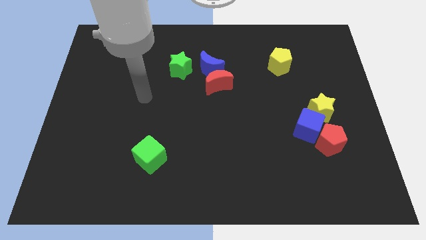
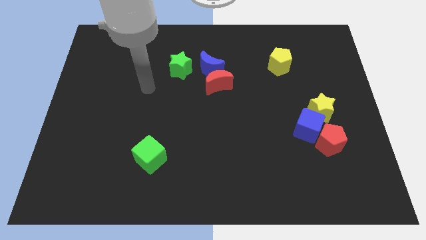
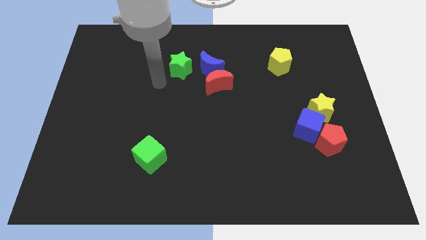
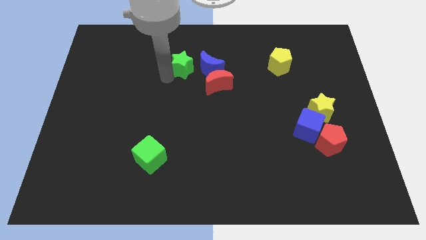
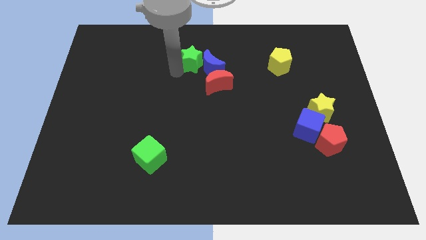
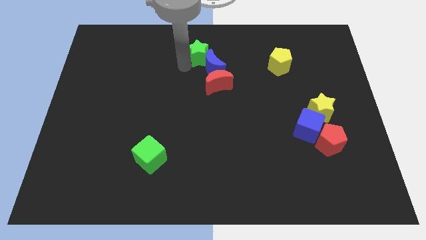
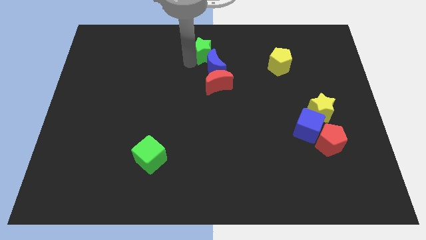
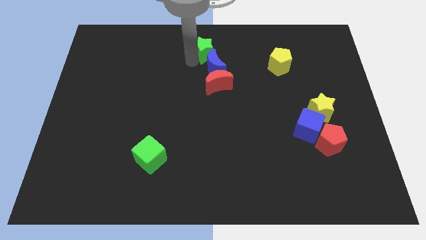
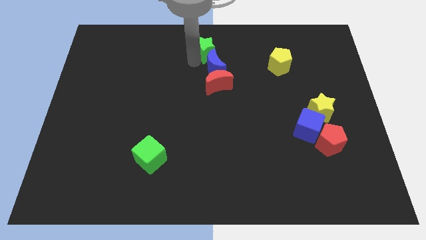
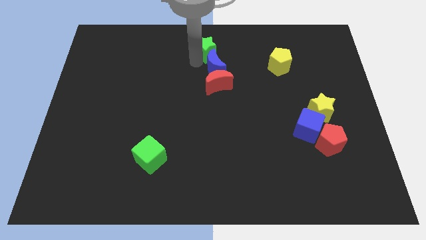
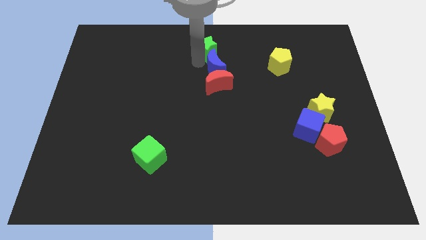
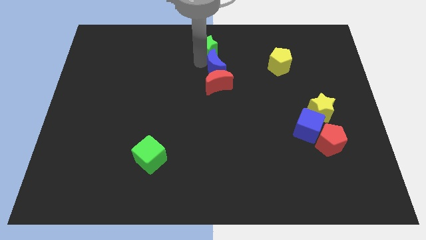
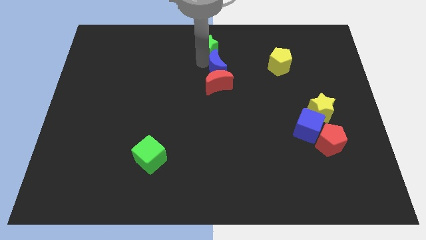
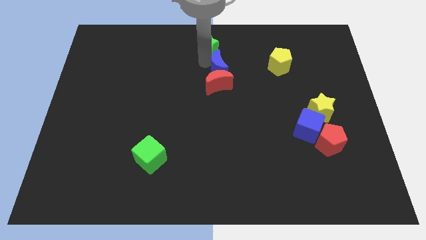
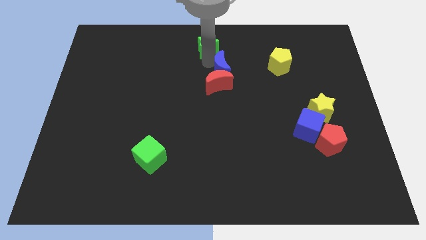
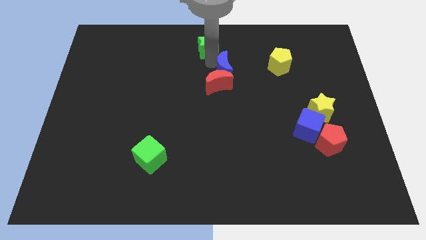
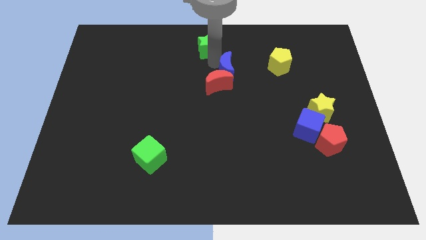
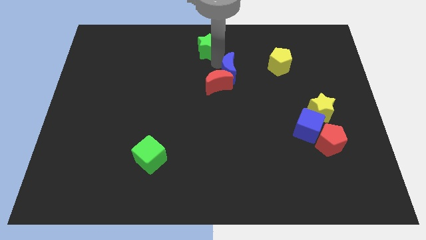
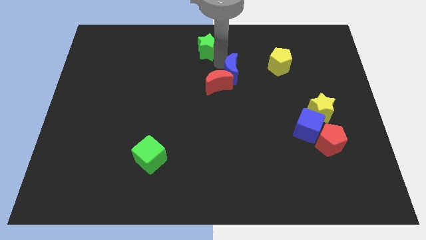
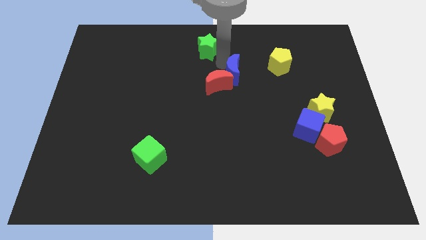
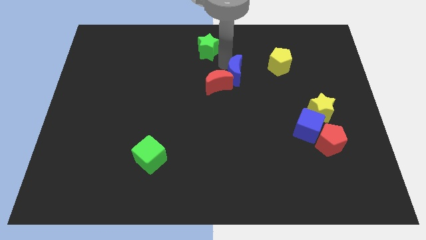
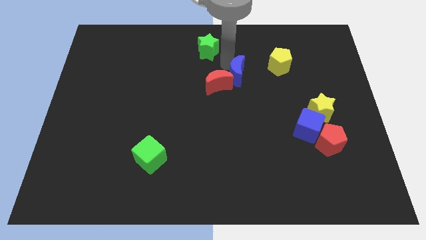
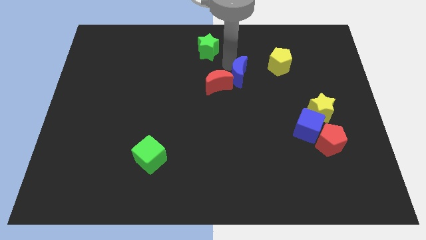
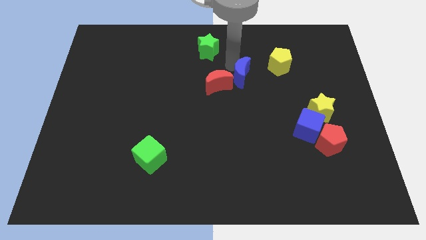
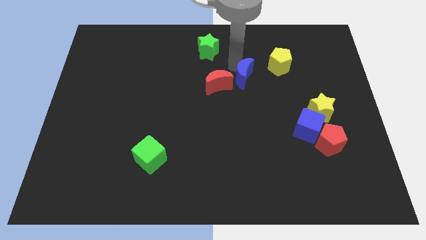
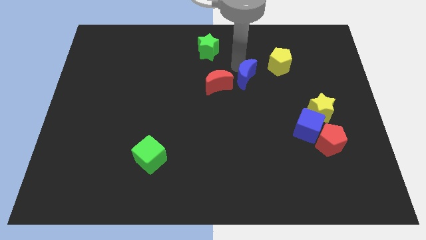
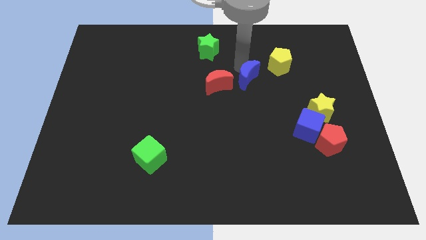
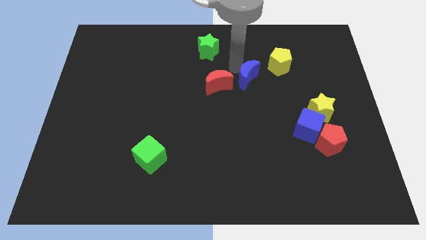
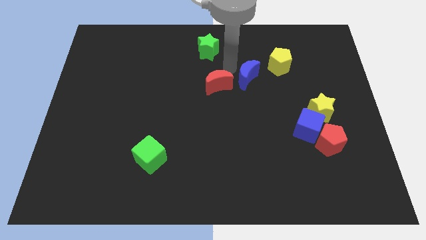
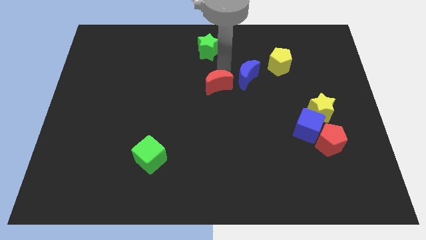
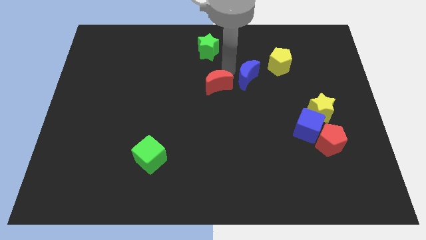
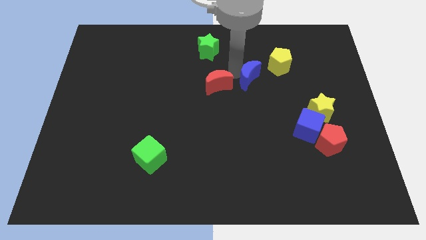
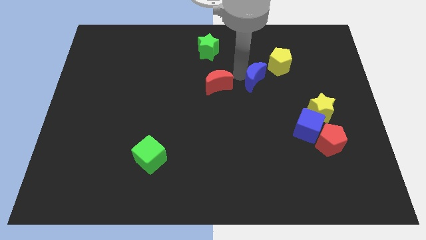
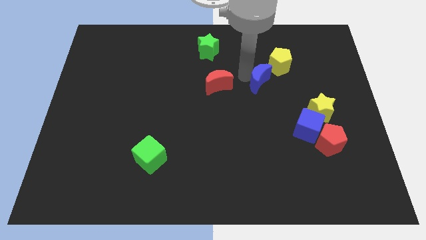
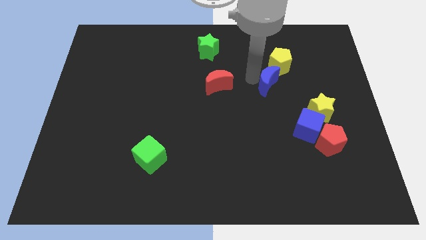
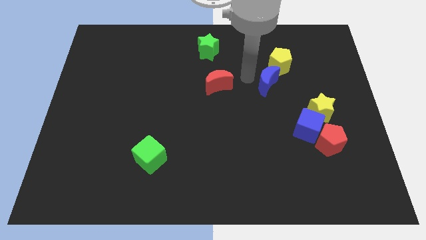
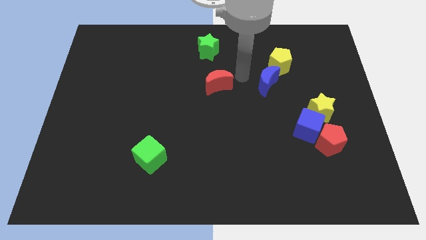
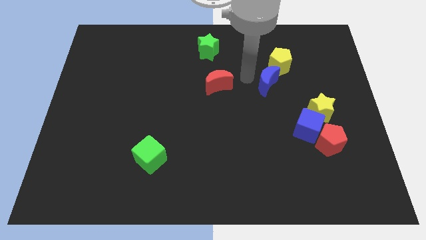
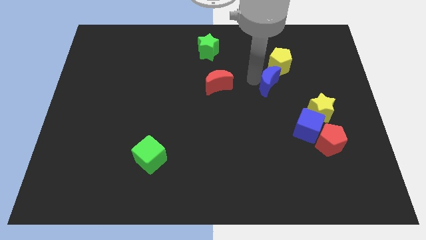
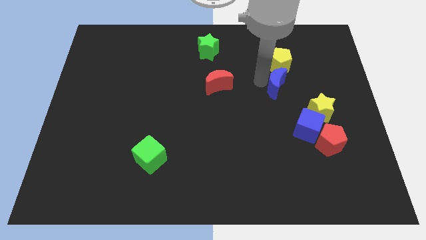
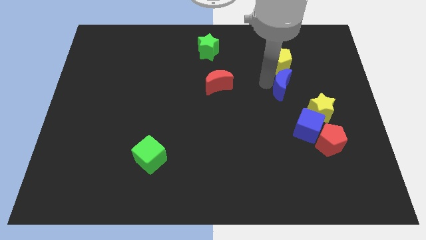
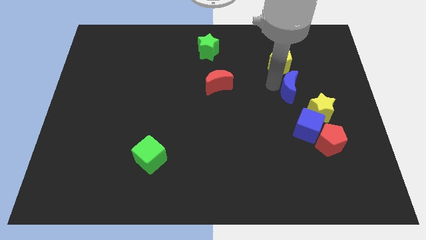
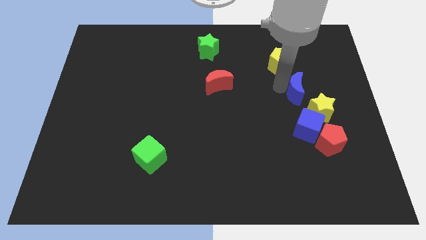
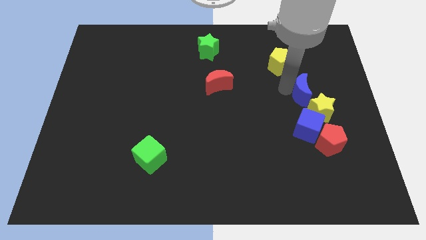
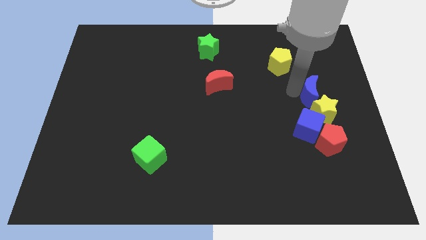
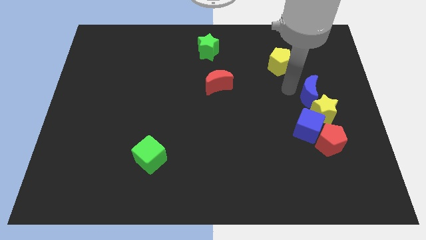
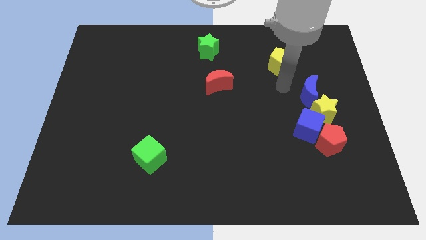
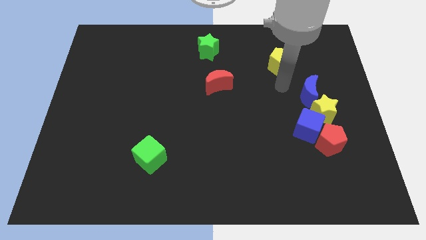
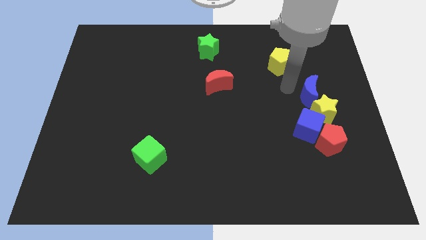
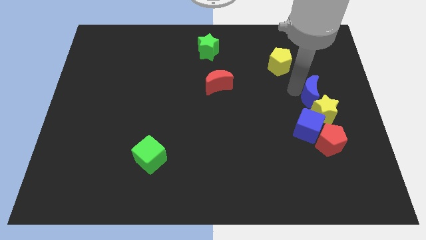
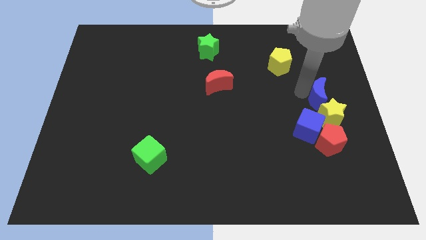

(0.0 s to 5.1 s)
move the blue moon diagonally up and to the right of the blue cube

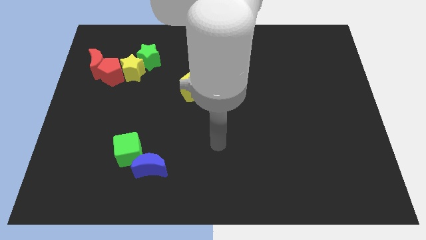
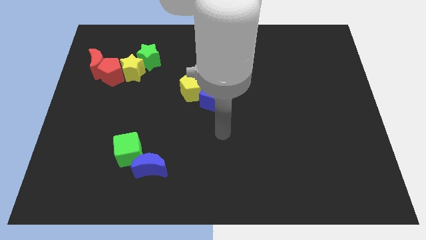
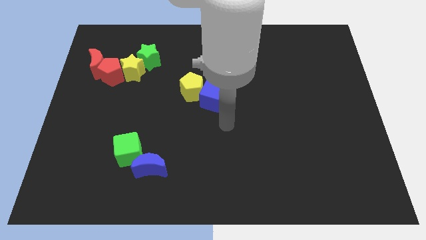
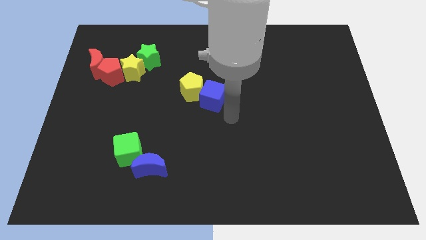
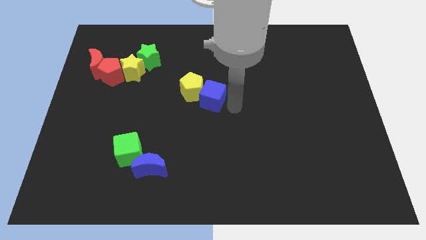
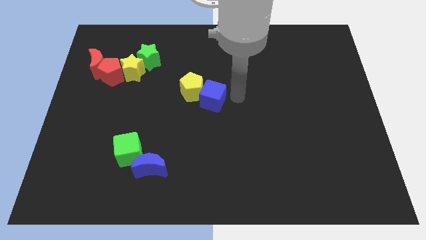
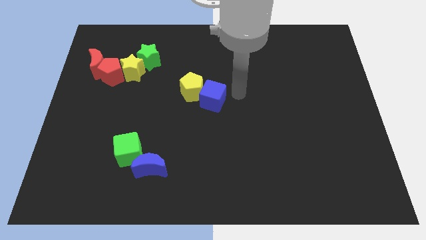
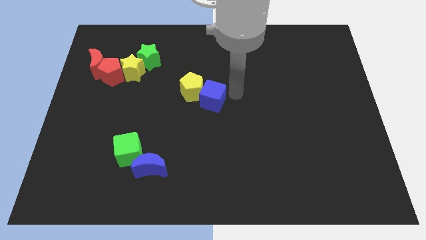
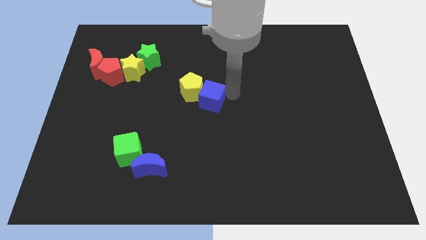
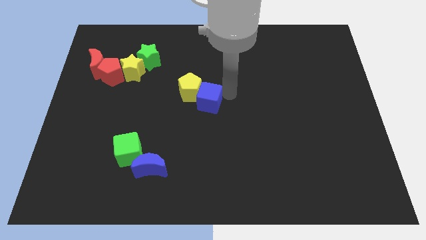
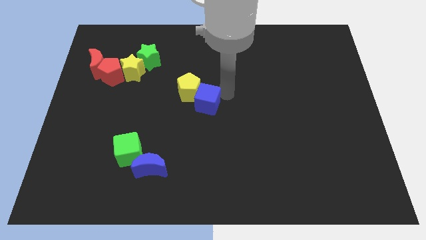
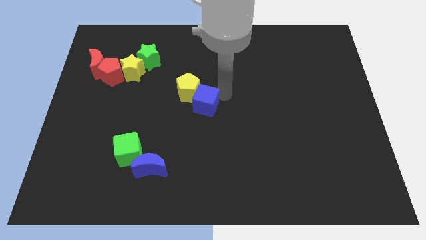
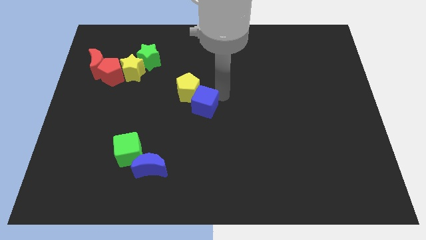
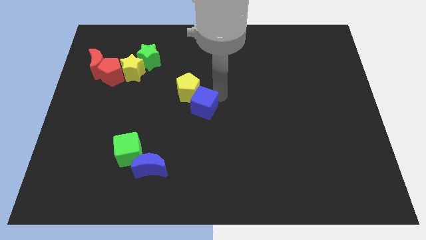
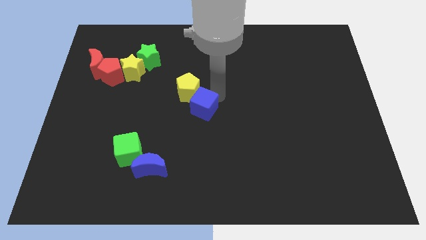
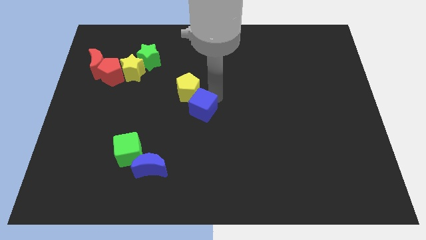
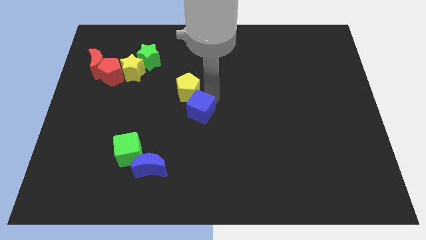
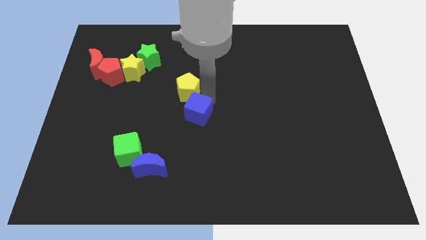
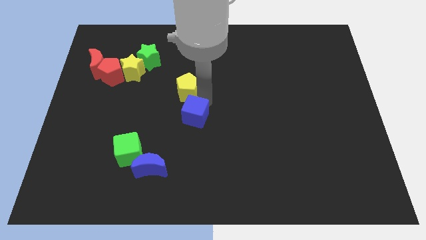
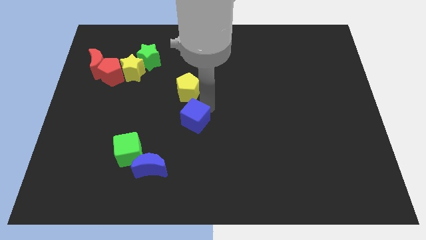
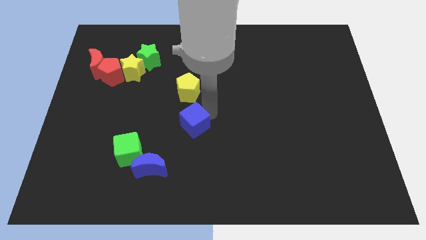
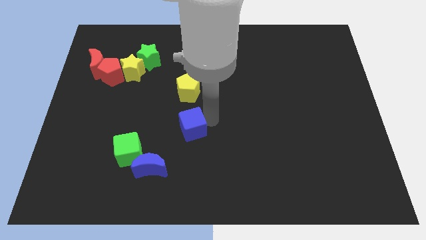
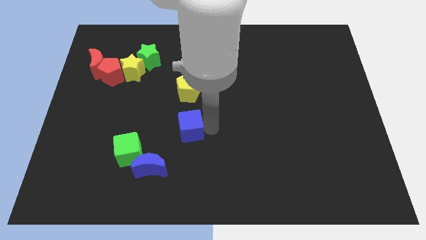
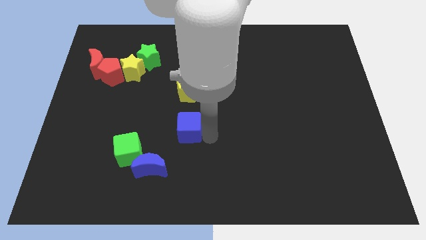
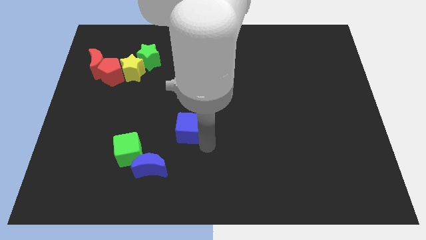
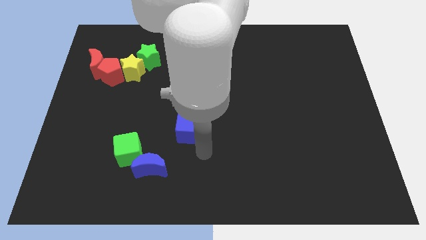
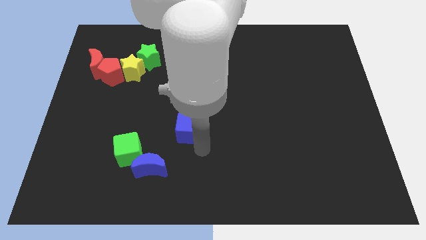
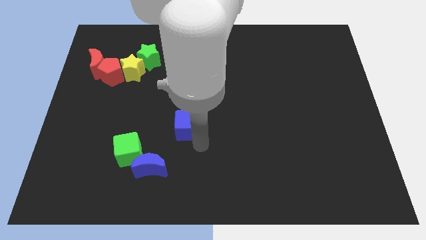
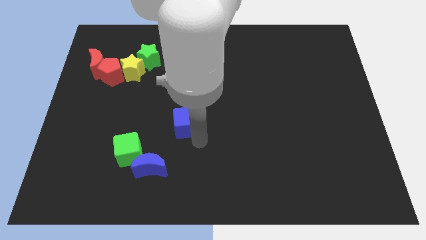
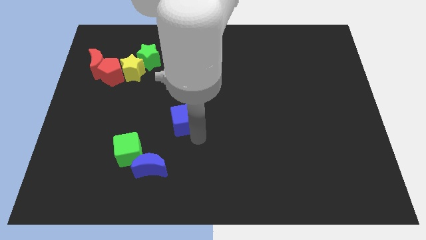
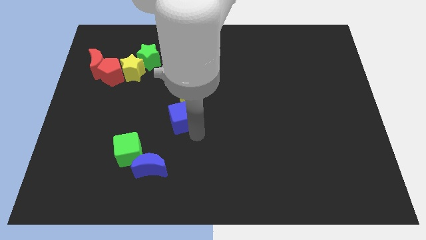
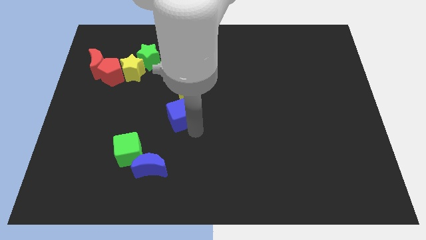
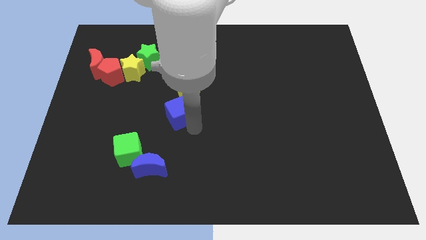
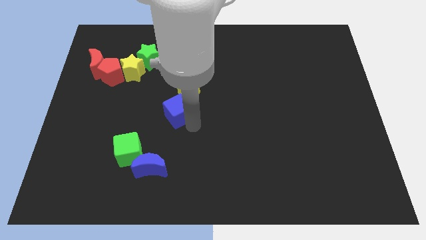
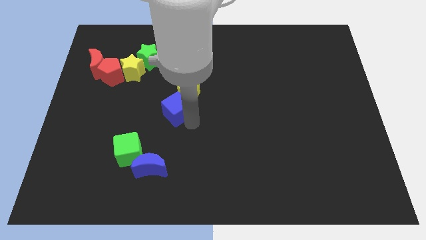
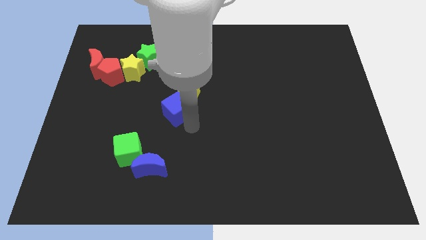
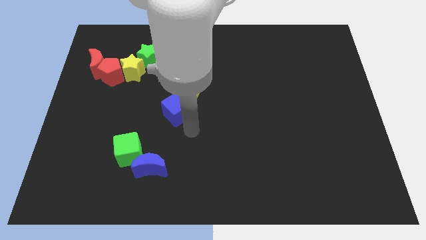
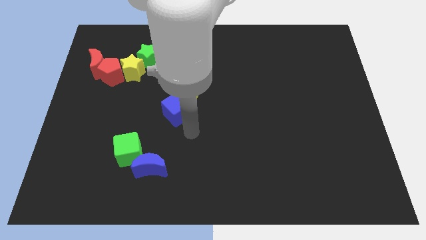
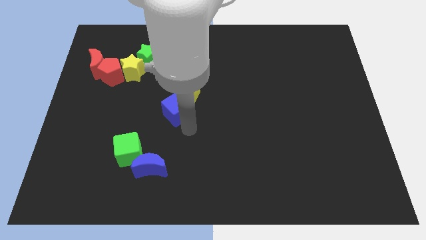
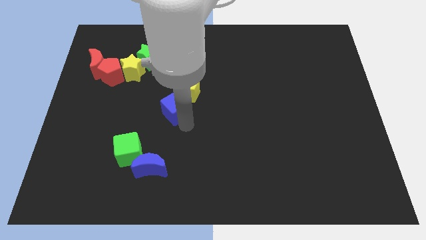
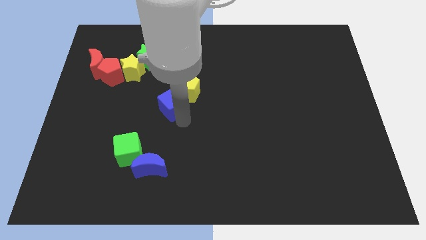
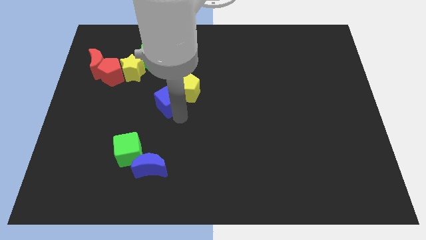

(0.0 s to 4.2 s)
put the blue cube just left of the yellow pentagon
